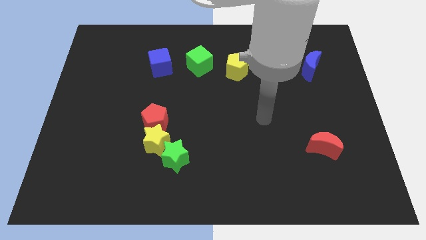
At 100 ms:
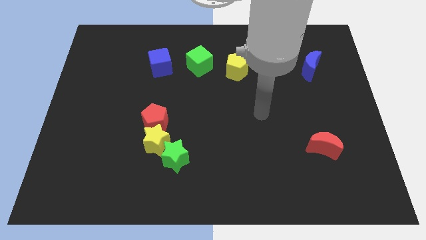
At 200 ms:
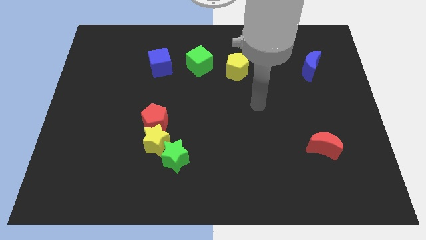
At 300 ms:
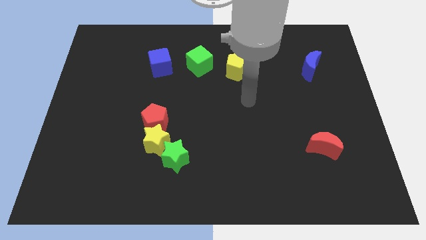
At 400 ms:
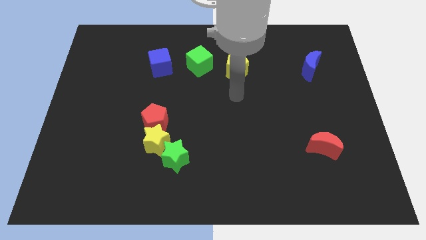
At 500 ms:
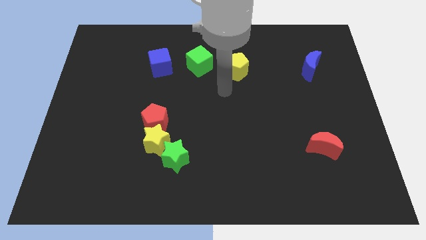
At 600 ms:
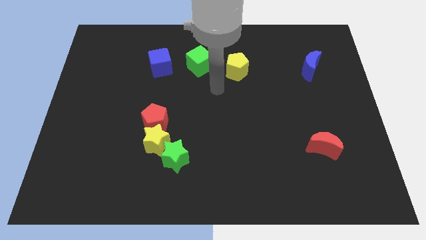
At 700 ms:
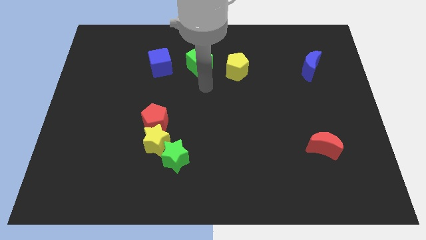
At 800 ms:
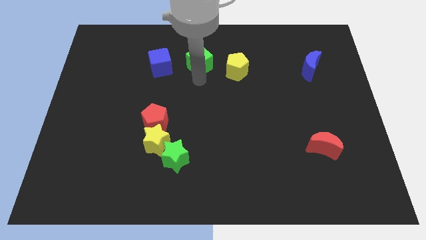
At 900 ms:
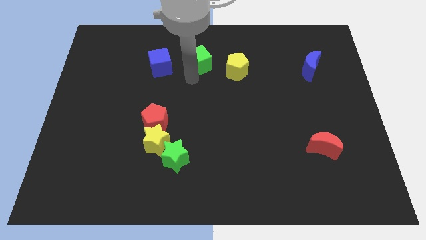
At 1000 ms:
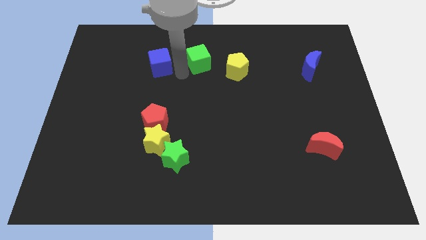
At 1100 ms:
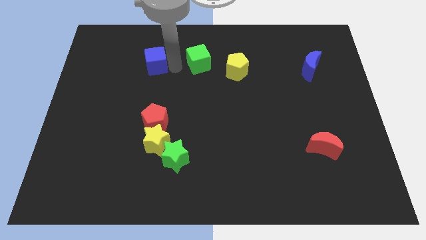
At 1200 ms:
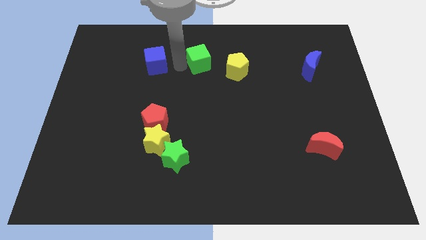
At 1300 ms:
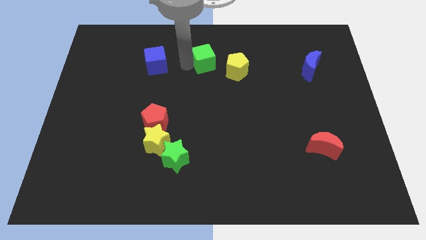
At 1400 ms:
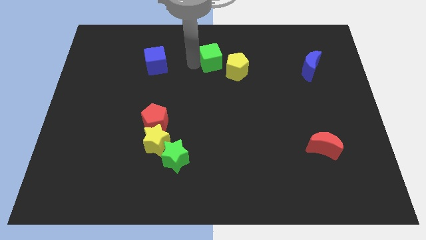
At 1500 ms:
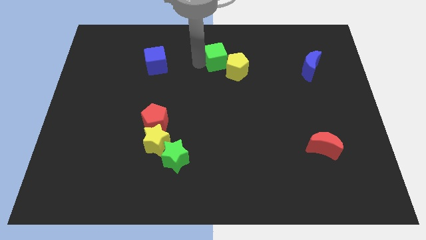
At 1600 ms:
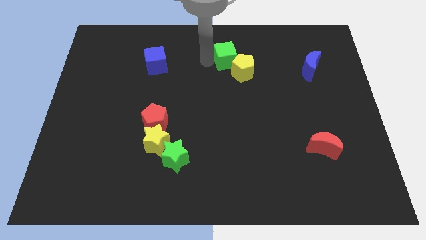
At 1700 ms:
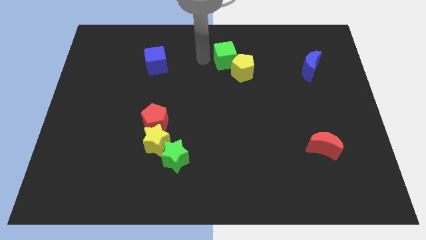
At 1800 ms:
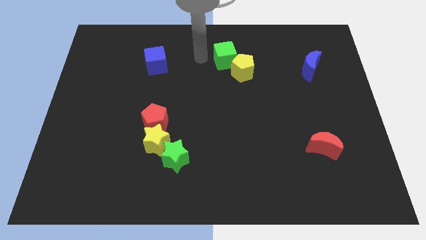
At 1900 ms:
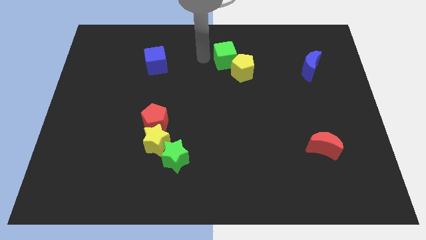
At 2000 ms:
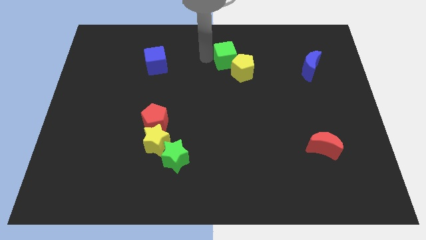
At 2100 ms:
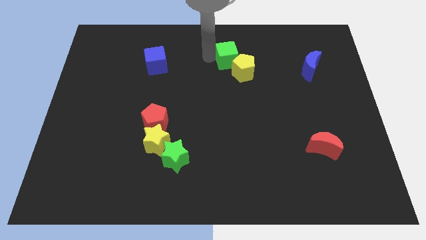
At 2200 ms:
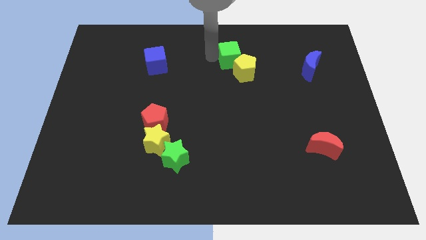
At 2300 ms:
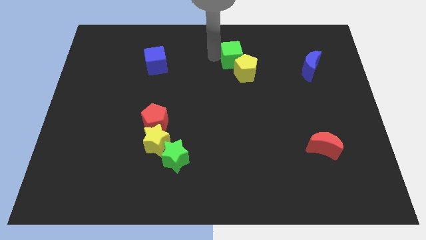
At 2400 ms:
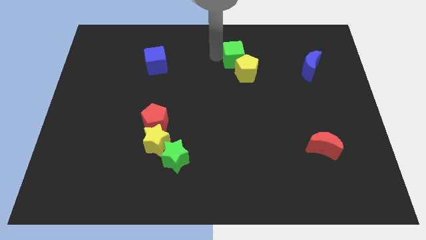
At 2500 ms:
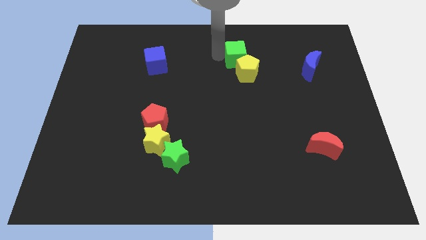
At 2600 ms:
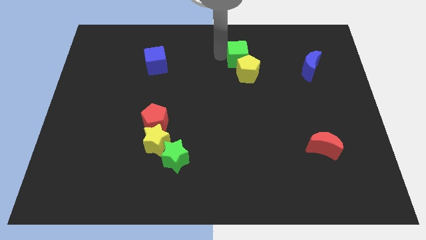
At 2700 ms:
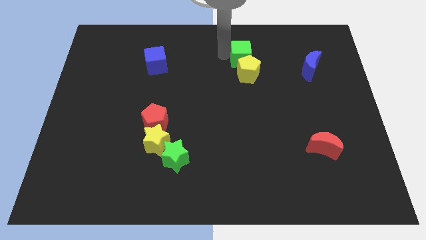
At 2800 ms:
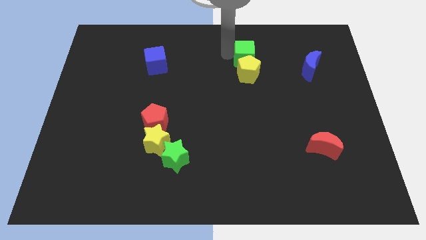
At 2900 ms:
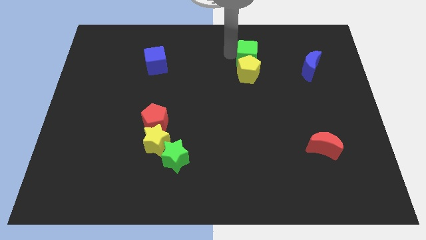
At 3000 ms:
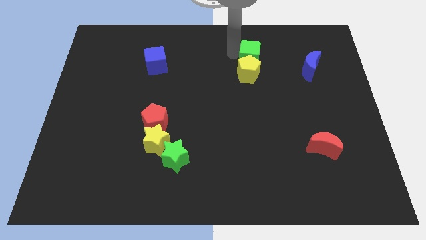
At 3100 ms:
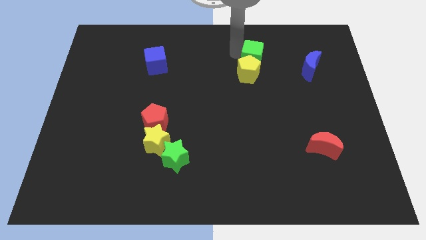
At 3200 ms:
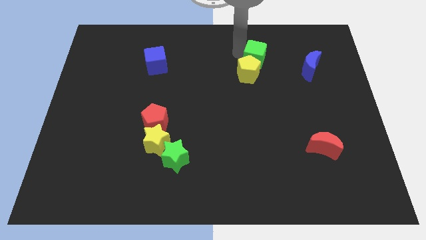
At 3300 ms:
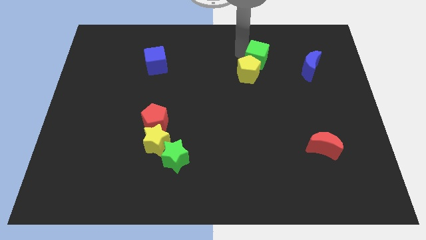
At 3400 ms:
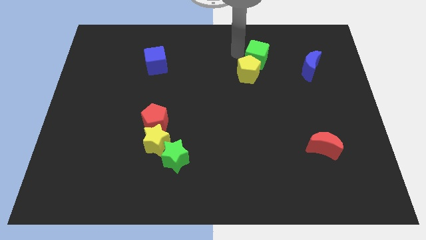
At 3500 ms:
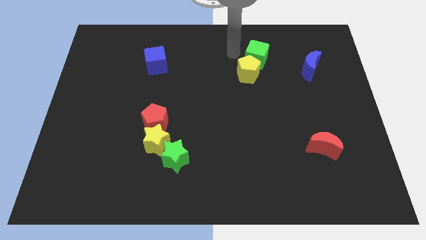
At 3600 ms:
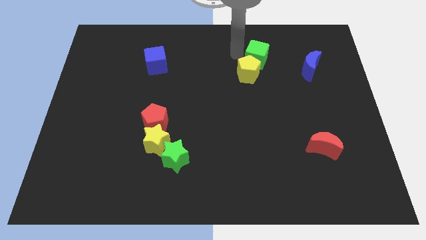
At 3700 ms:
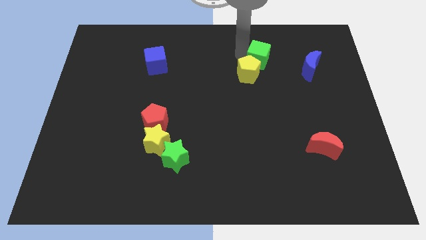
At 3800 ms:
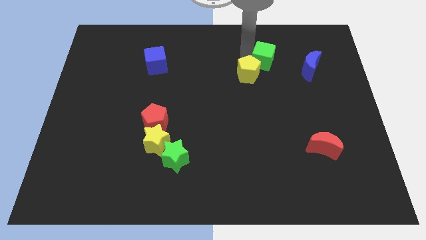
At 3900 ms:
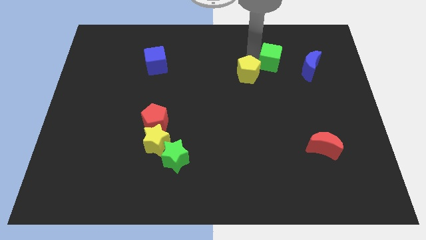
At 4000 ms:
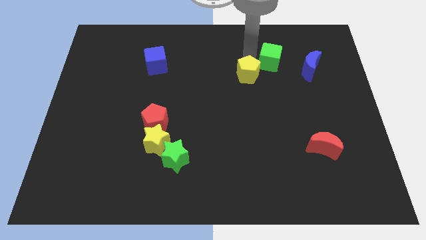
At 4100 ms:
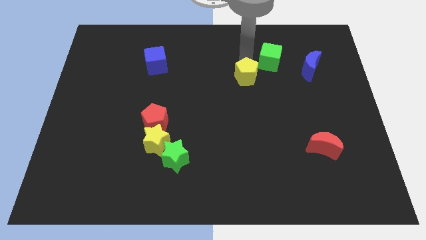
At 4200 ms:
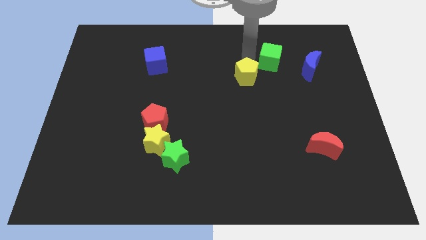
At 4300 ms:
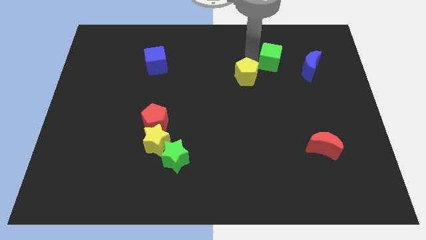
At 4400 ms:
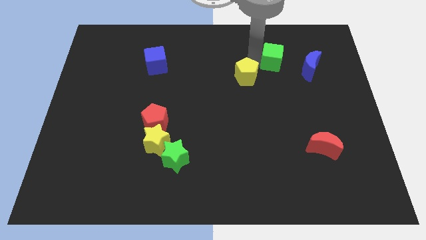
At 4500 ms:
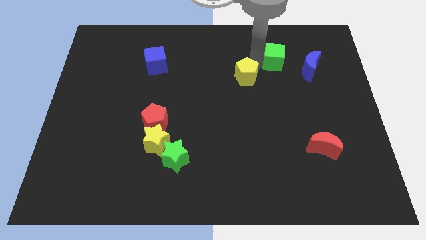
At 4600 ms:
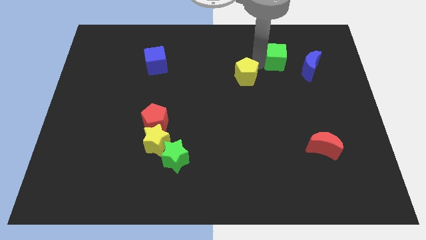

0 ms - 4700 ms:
push the green cube right

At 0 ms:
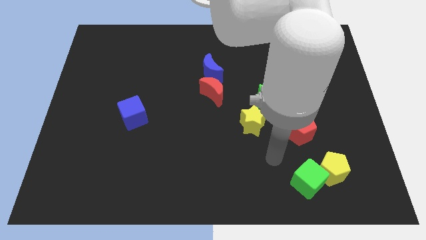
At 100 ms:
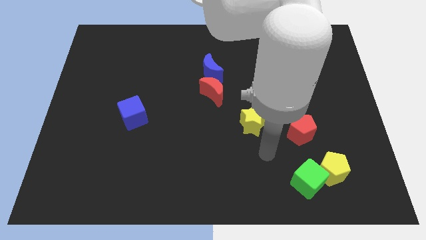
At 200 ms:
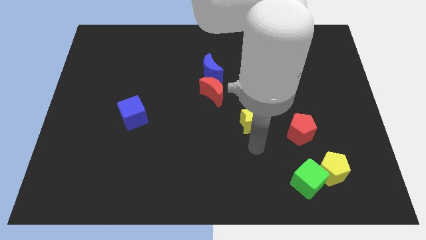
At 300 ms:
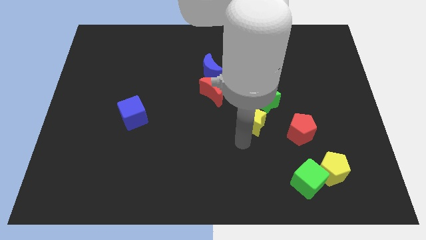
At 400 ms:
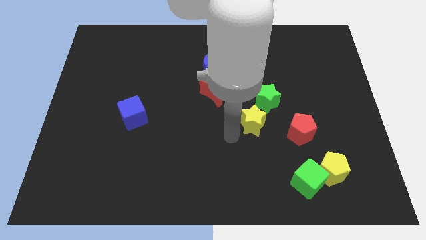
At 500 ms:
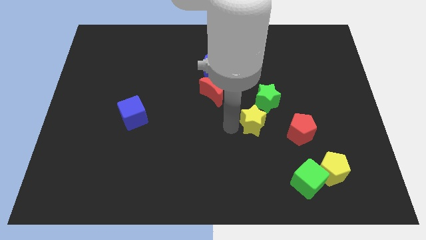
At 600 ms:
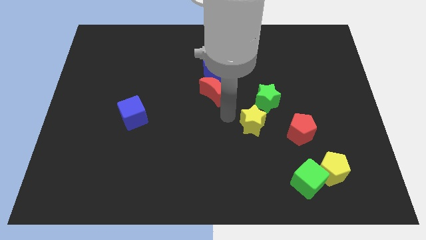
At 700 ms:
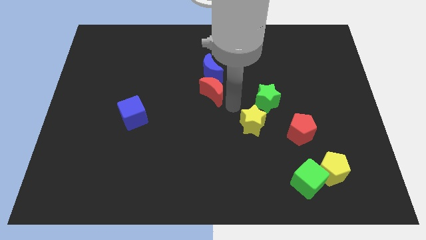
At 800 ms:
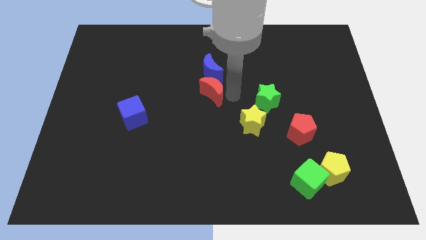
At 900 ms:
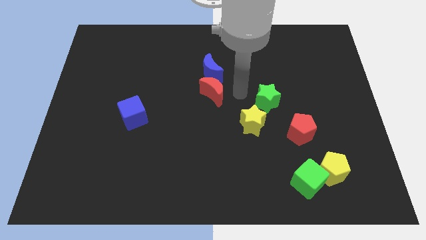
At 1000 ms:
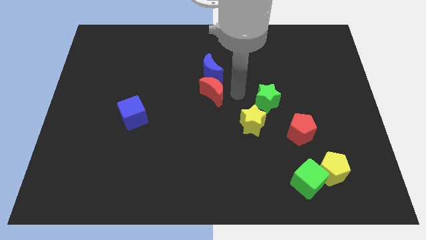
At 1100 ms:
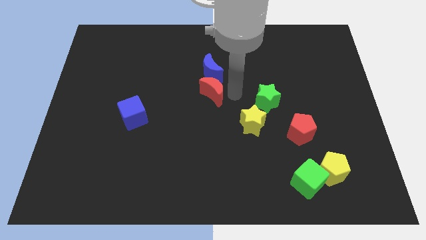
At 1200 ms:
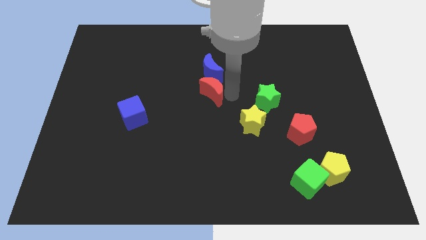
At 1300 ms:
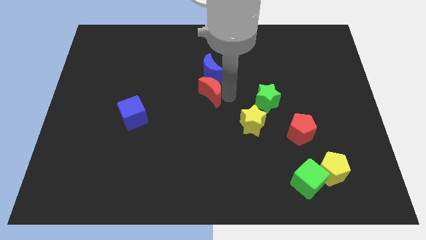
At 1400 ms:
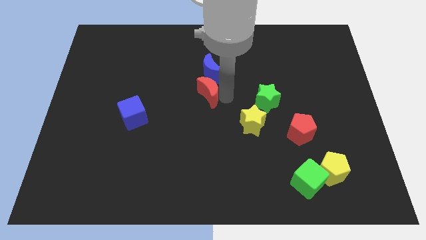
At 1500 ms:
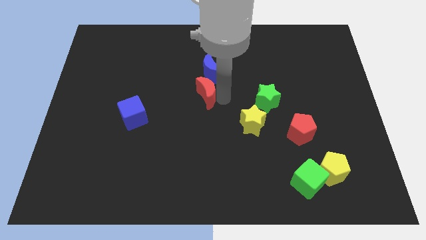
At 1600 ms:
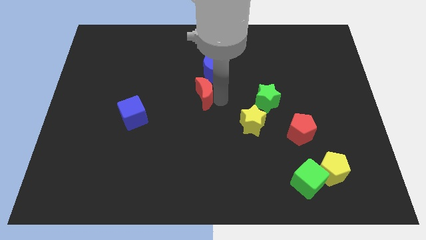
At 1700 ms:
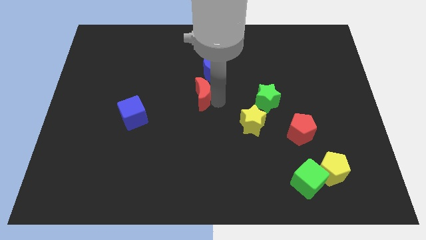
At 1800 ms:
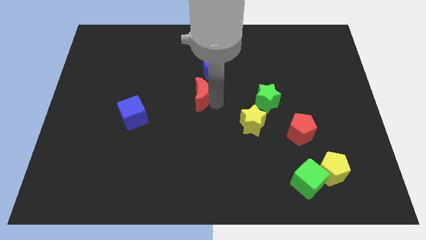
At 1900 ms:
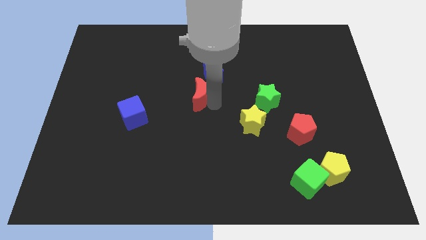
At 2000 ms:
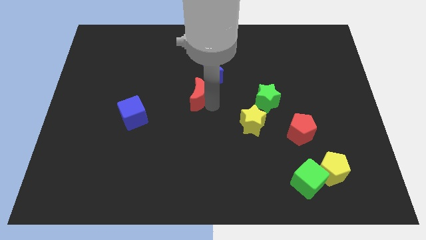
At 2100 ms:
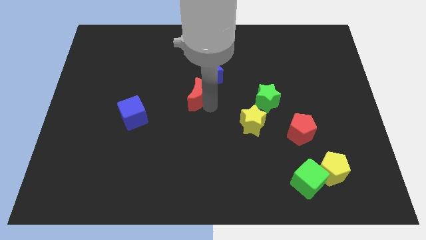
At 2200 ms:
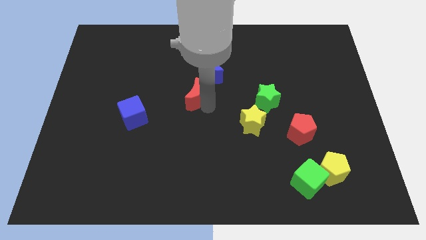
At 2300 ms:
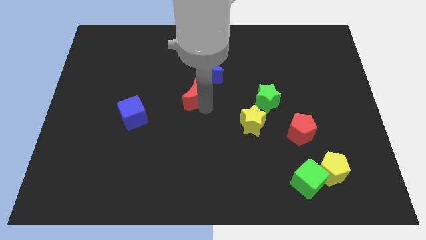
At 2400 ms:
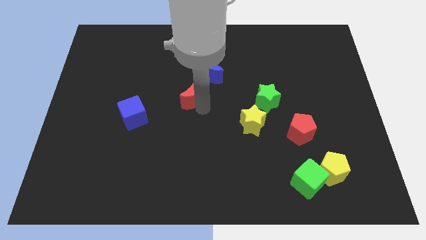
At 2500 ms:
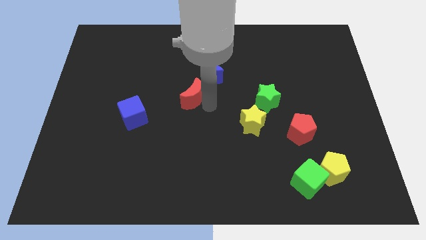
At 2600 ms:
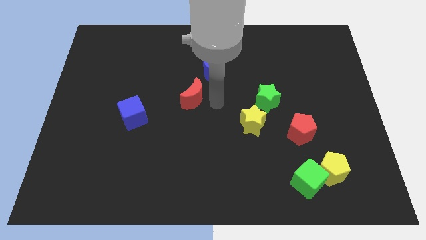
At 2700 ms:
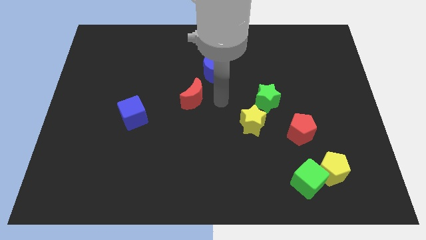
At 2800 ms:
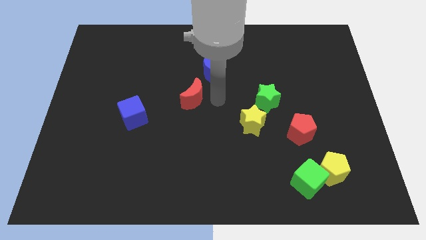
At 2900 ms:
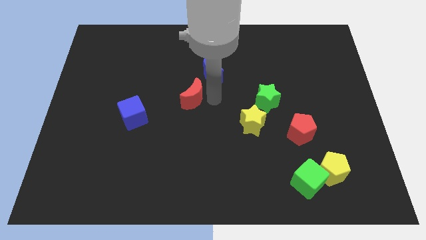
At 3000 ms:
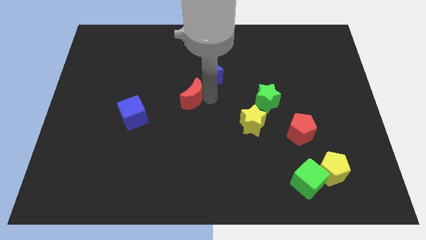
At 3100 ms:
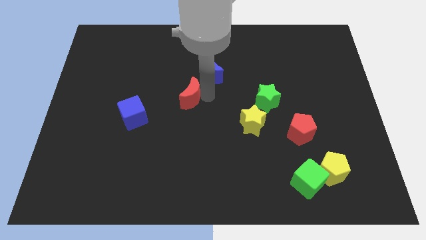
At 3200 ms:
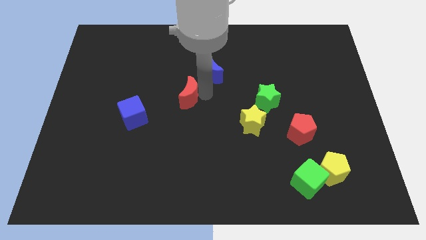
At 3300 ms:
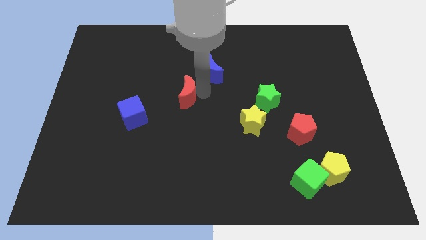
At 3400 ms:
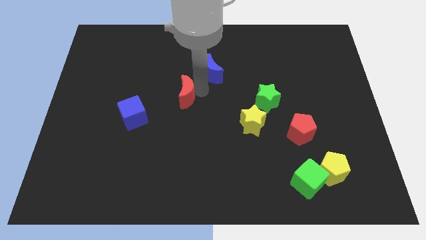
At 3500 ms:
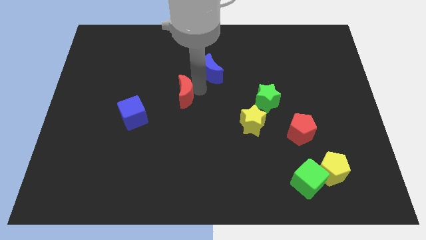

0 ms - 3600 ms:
slide the red moon a little left
